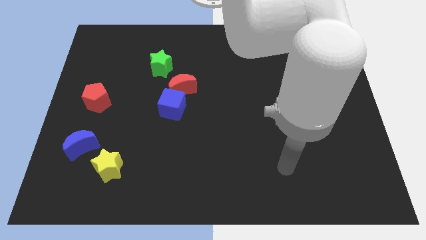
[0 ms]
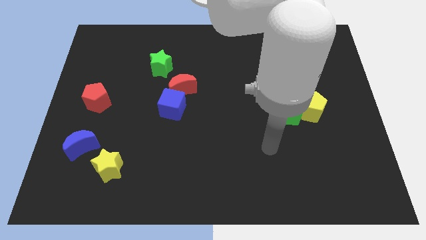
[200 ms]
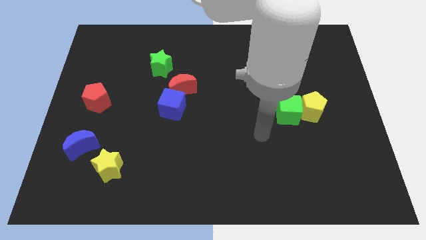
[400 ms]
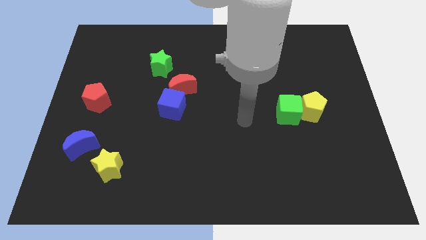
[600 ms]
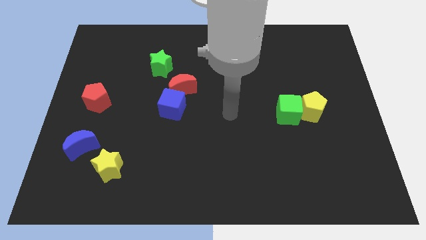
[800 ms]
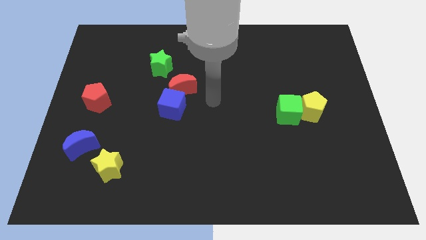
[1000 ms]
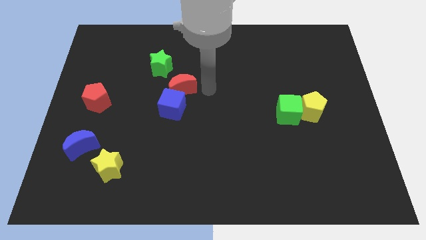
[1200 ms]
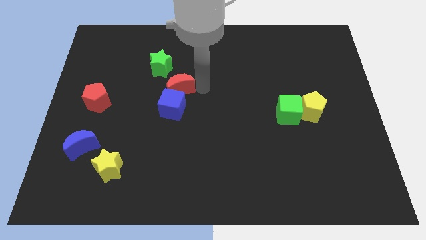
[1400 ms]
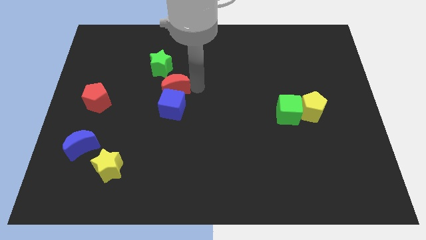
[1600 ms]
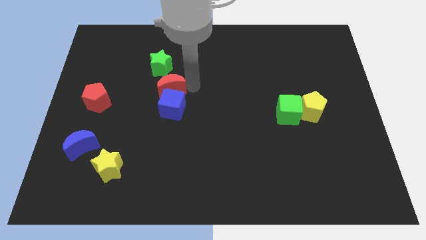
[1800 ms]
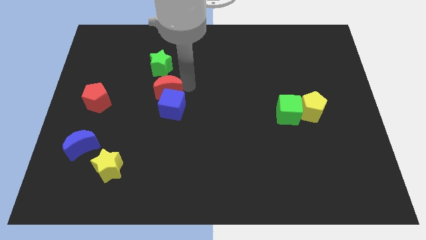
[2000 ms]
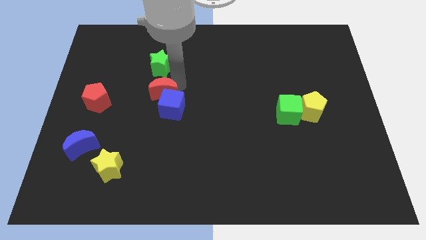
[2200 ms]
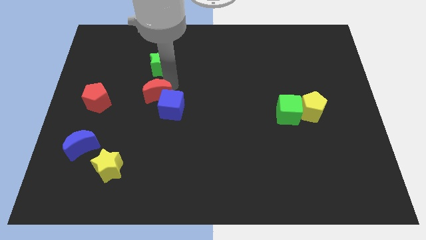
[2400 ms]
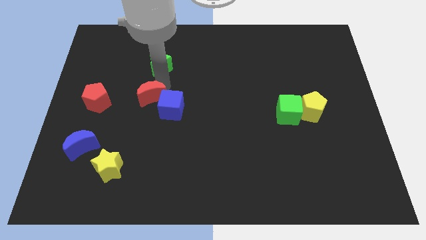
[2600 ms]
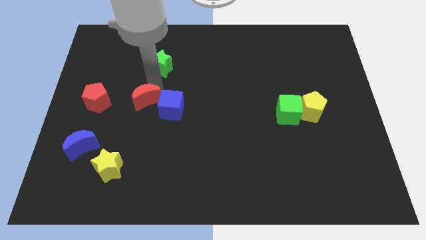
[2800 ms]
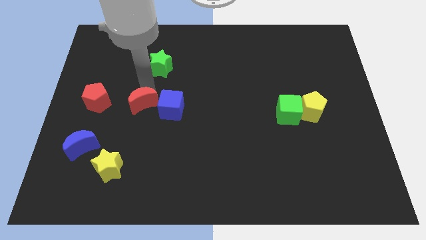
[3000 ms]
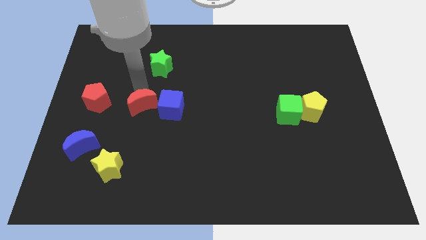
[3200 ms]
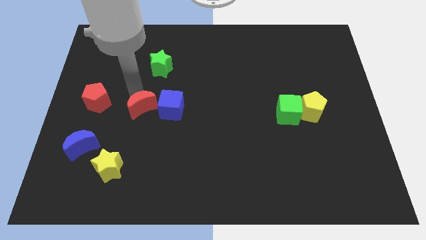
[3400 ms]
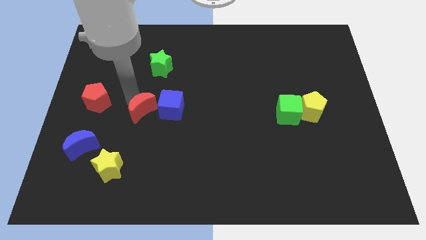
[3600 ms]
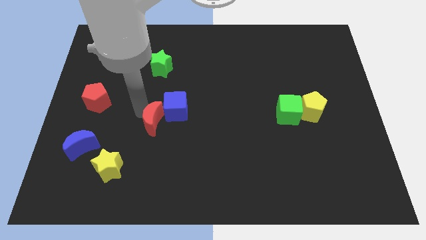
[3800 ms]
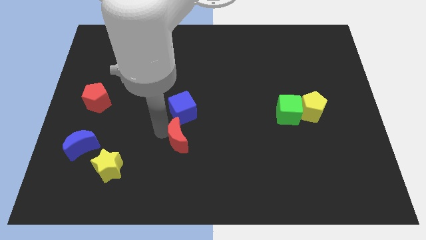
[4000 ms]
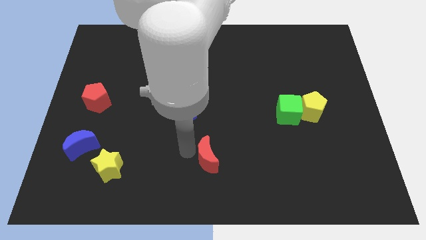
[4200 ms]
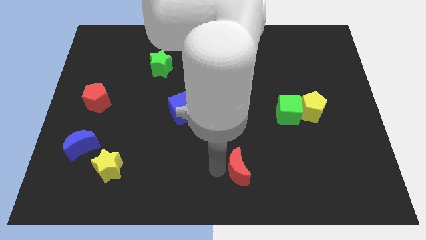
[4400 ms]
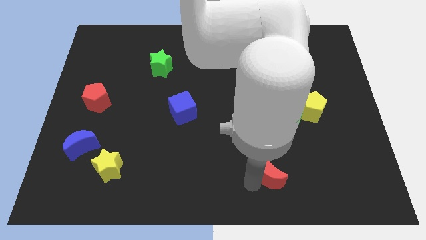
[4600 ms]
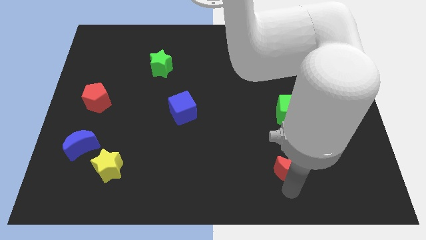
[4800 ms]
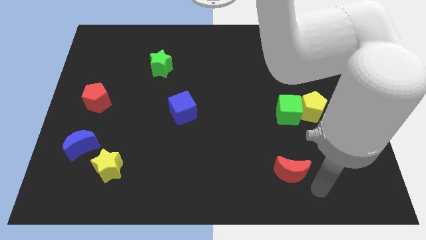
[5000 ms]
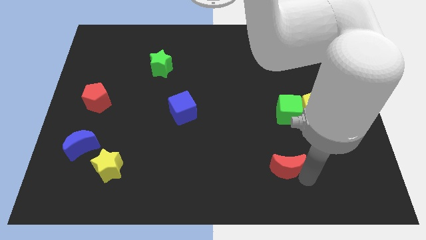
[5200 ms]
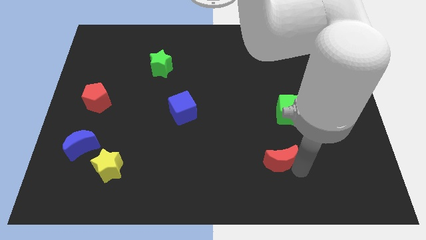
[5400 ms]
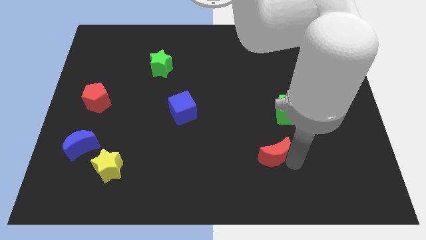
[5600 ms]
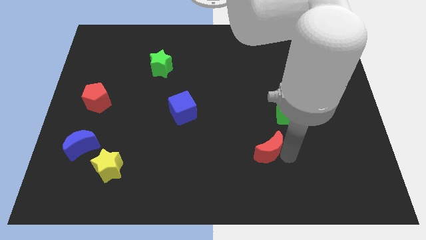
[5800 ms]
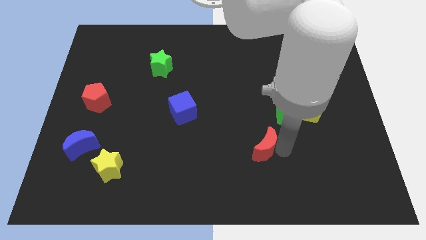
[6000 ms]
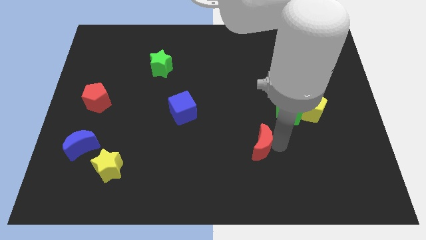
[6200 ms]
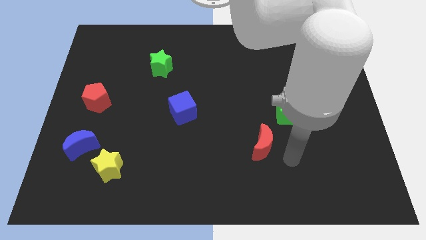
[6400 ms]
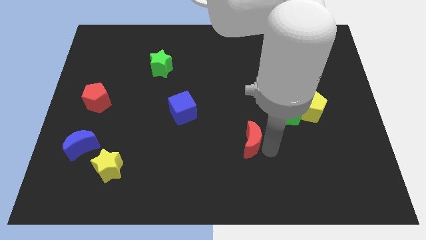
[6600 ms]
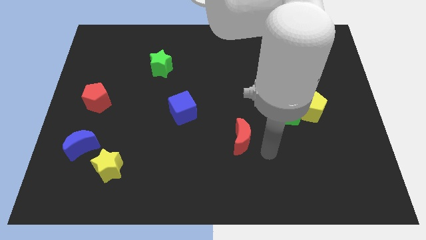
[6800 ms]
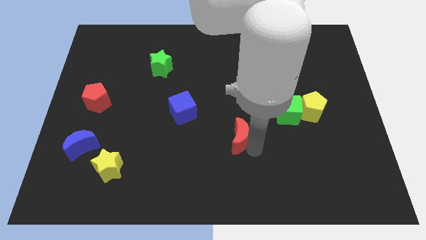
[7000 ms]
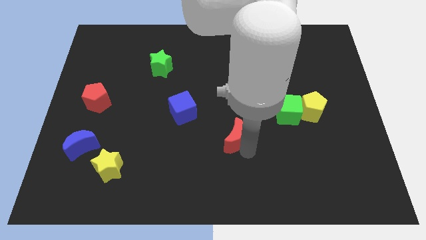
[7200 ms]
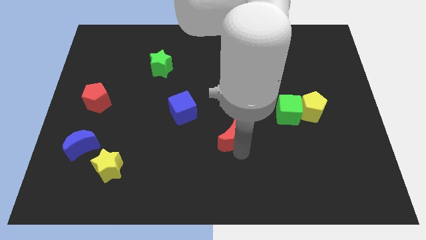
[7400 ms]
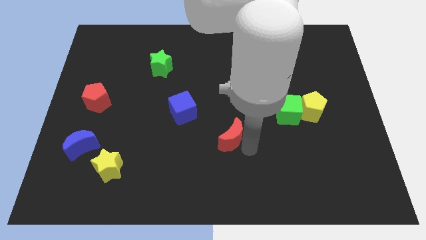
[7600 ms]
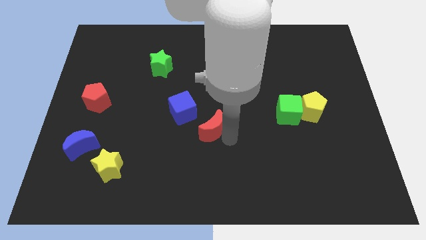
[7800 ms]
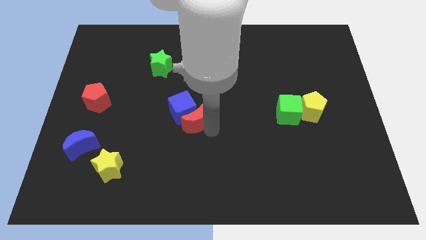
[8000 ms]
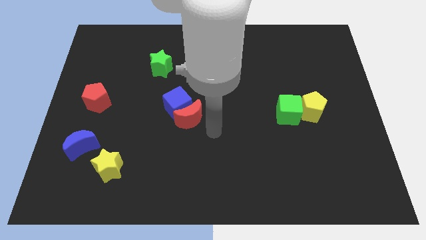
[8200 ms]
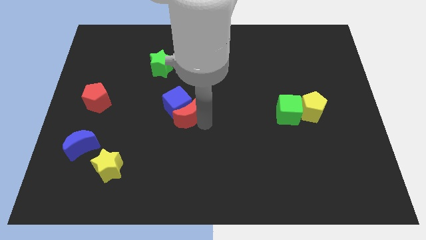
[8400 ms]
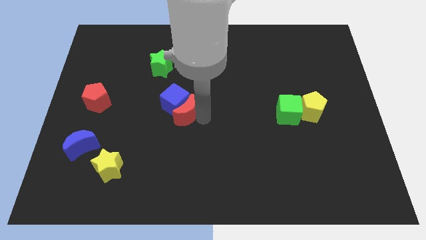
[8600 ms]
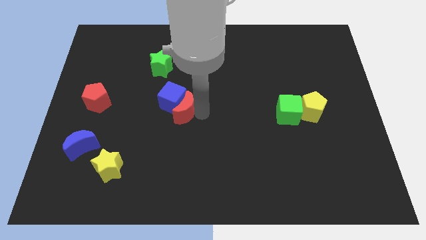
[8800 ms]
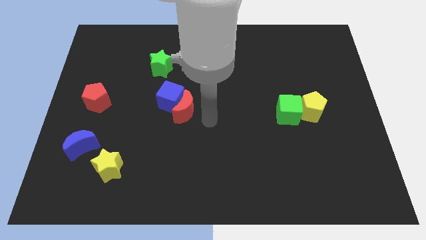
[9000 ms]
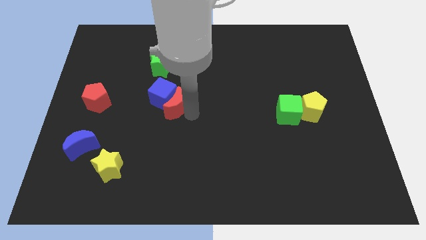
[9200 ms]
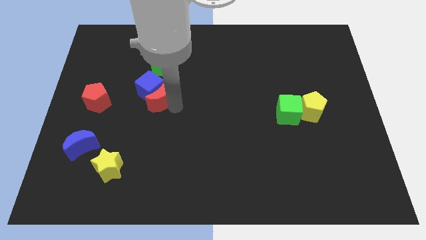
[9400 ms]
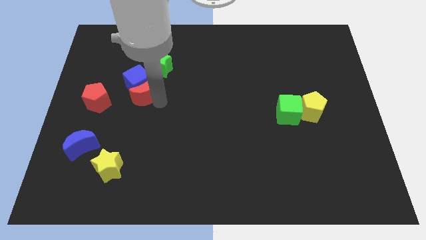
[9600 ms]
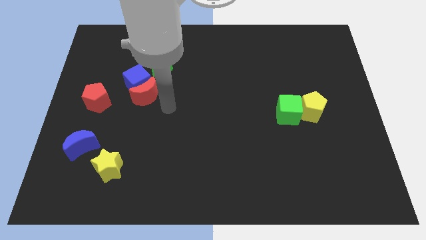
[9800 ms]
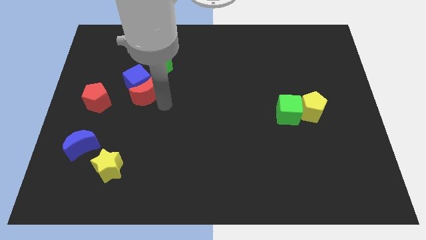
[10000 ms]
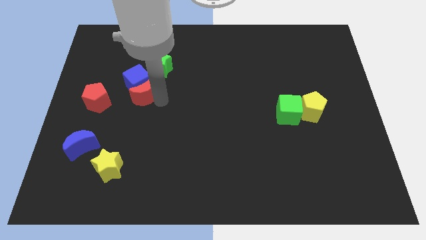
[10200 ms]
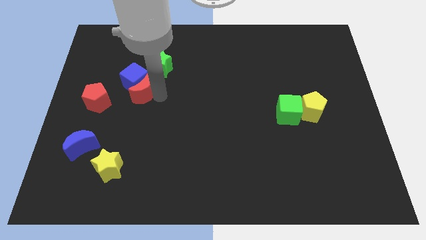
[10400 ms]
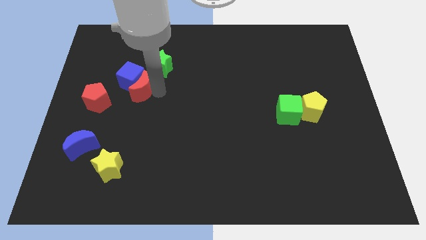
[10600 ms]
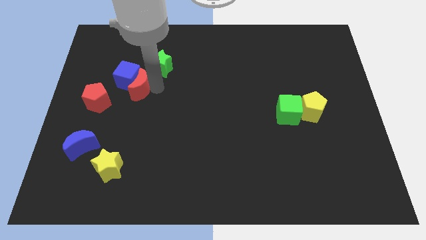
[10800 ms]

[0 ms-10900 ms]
push the red moon diagonally up and to the right of the red pentagon

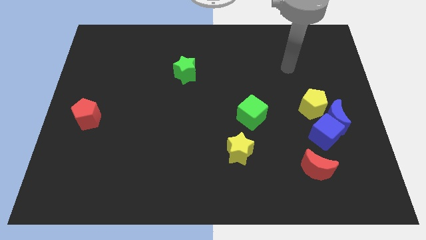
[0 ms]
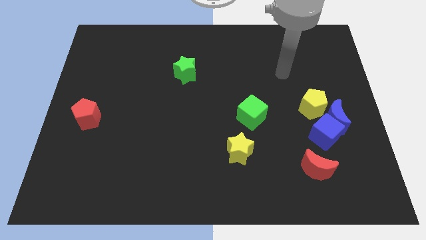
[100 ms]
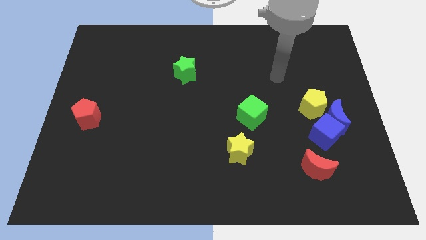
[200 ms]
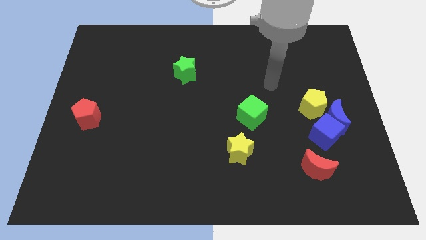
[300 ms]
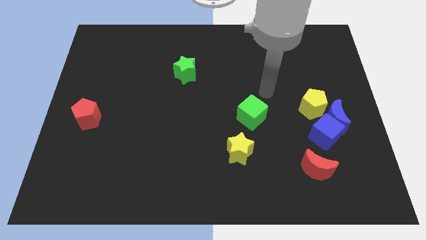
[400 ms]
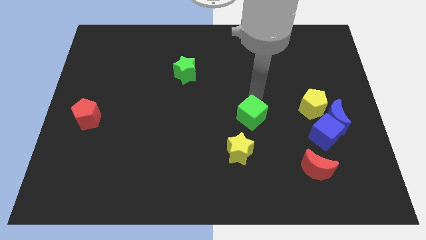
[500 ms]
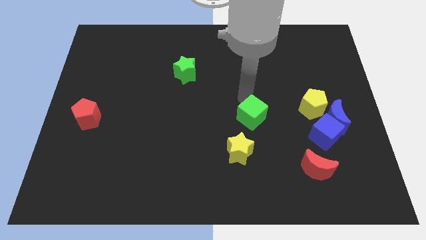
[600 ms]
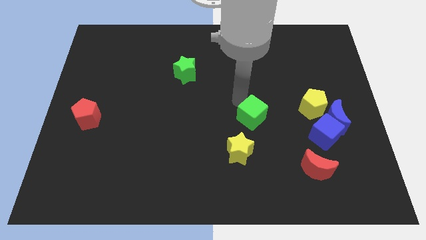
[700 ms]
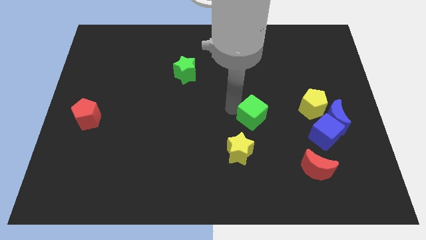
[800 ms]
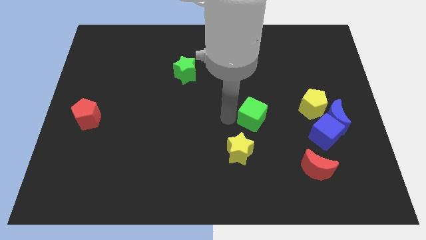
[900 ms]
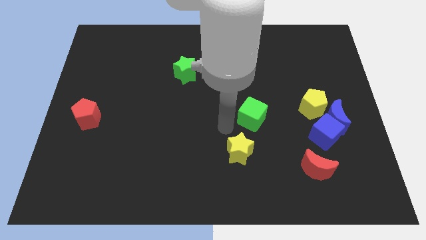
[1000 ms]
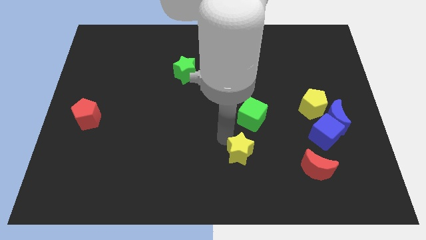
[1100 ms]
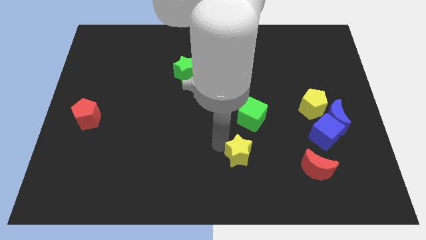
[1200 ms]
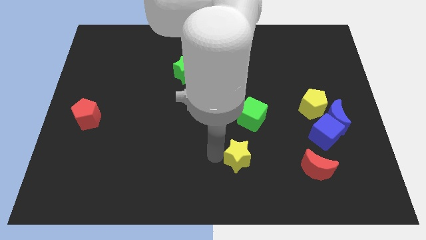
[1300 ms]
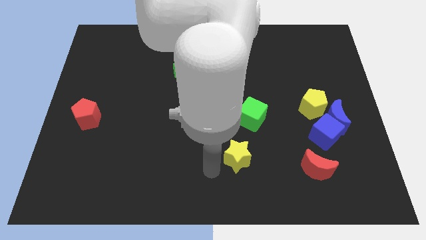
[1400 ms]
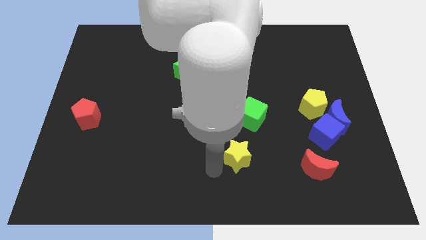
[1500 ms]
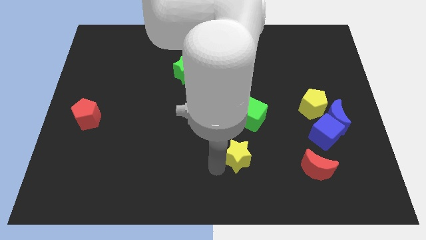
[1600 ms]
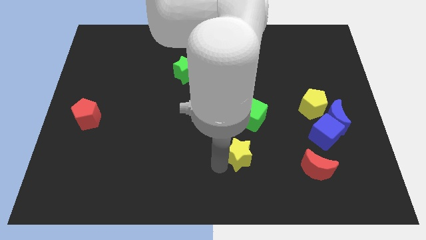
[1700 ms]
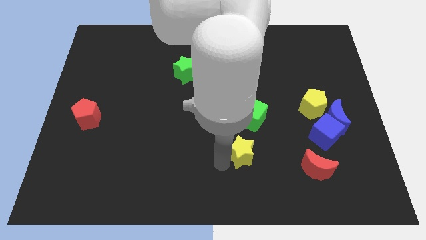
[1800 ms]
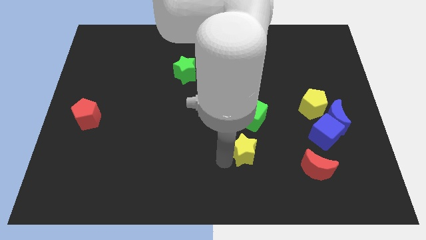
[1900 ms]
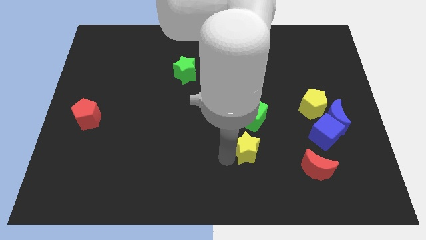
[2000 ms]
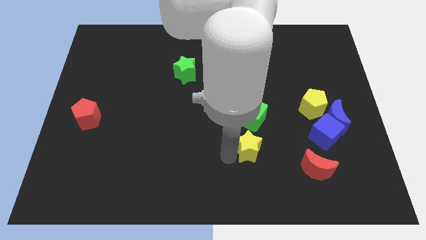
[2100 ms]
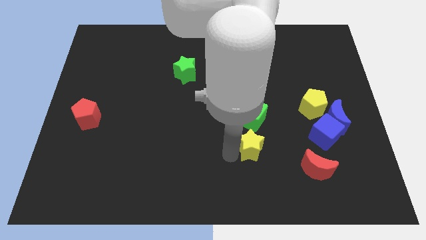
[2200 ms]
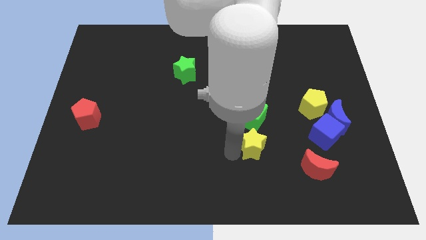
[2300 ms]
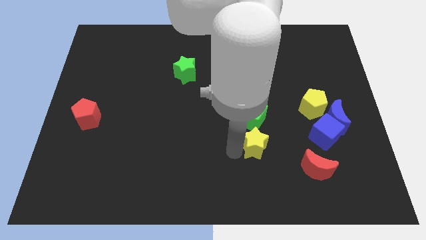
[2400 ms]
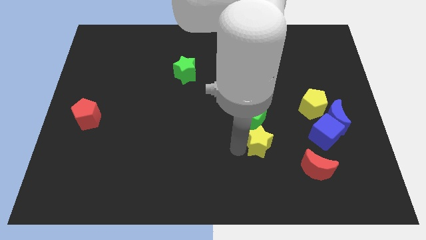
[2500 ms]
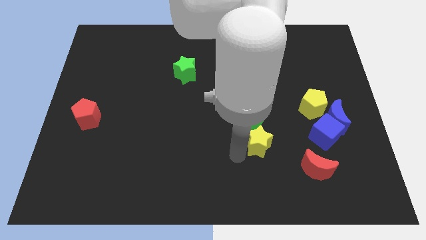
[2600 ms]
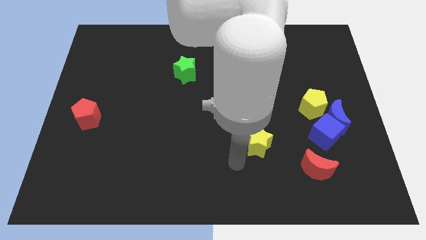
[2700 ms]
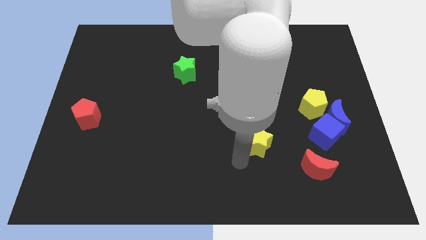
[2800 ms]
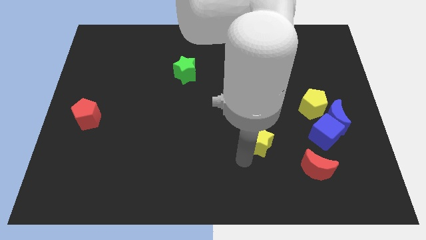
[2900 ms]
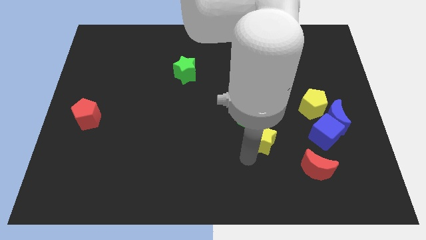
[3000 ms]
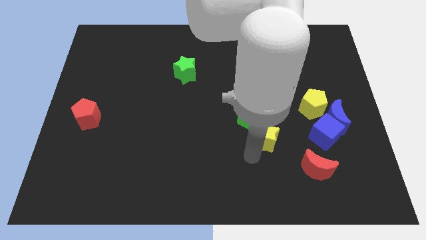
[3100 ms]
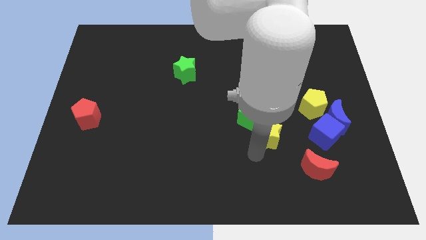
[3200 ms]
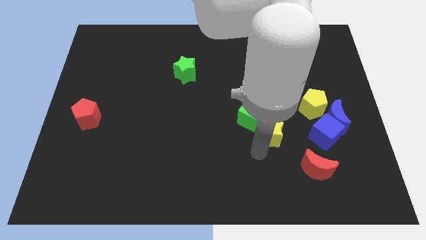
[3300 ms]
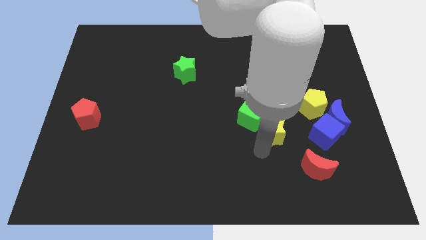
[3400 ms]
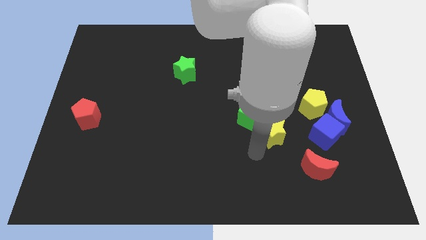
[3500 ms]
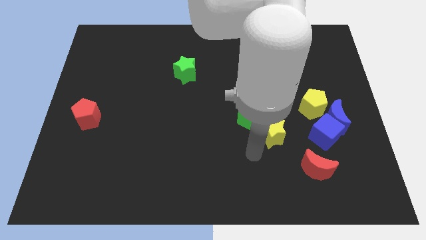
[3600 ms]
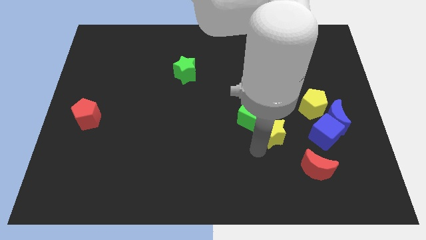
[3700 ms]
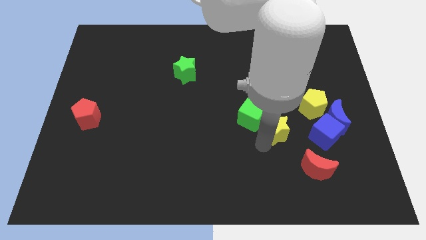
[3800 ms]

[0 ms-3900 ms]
push the yellow star to the left side of the blue moon
